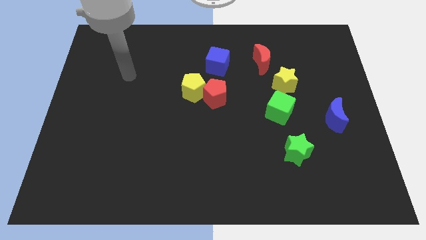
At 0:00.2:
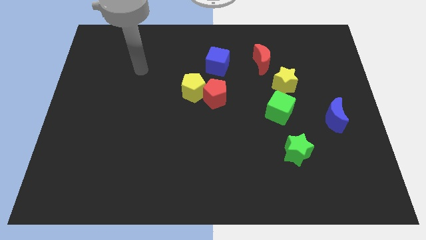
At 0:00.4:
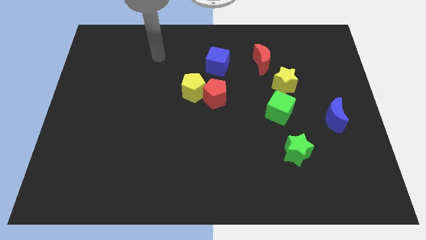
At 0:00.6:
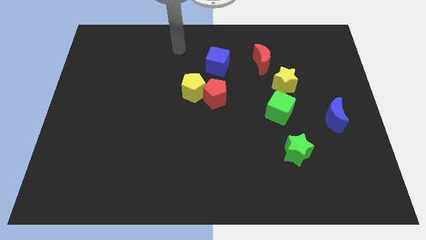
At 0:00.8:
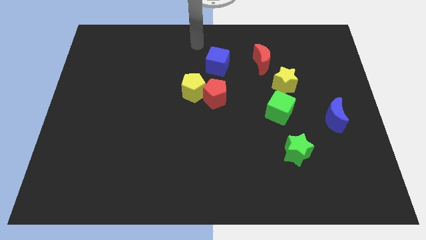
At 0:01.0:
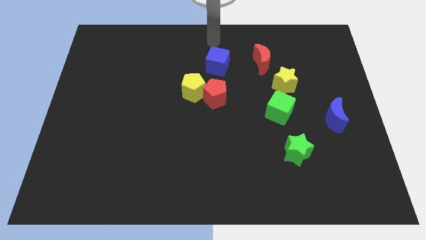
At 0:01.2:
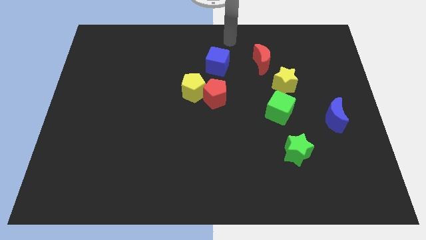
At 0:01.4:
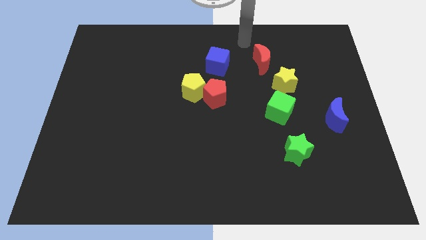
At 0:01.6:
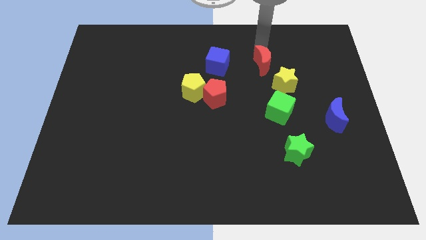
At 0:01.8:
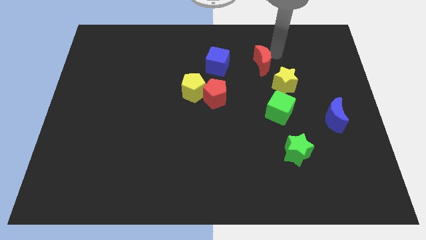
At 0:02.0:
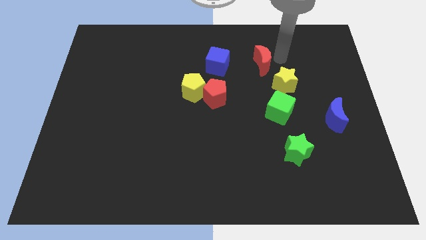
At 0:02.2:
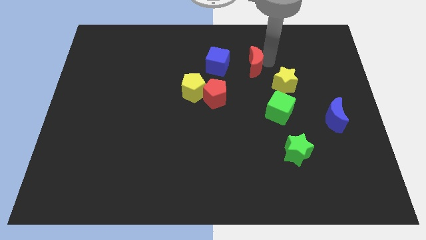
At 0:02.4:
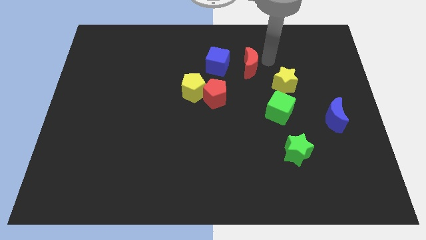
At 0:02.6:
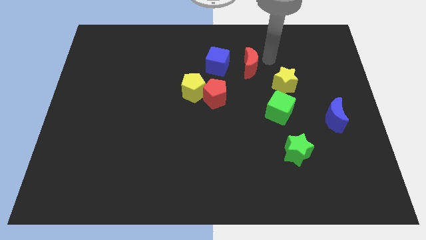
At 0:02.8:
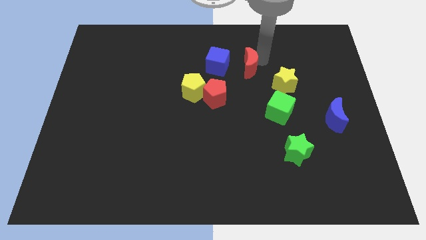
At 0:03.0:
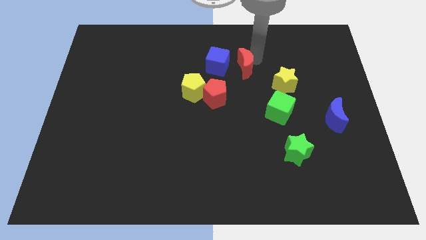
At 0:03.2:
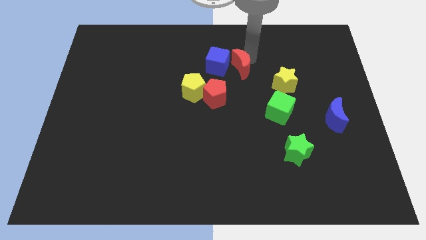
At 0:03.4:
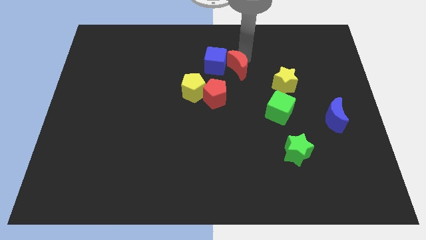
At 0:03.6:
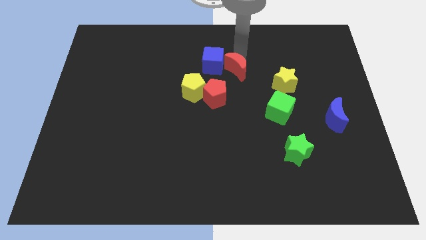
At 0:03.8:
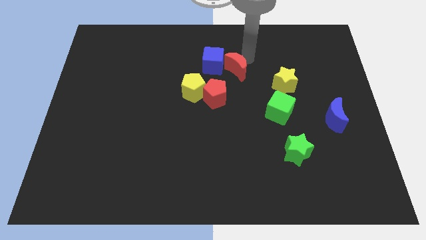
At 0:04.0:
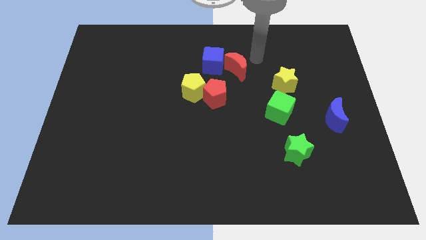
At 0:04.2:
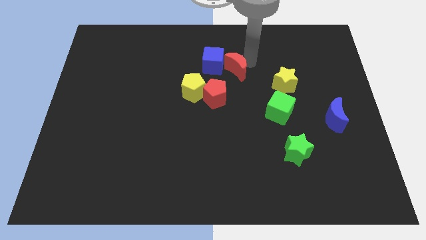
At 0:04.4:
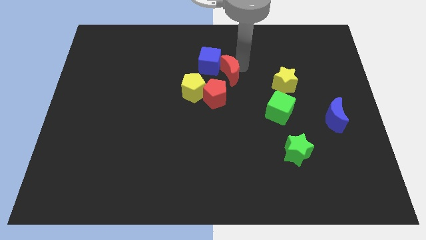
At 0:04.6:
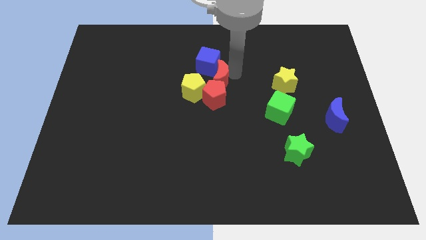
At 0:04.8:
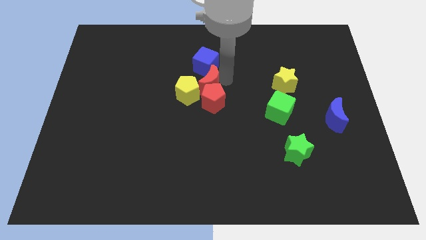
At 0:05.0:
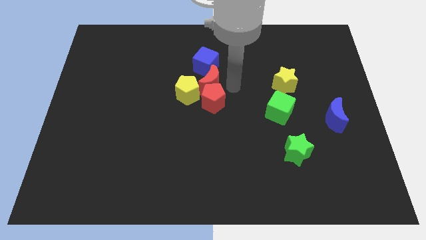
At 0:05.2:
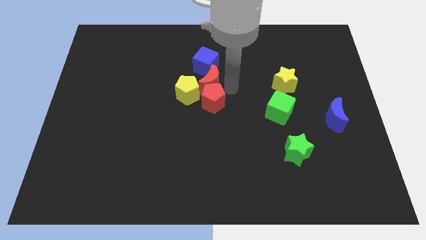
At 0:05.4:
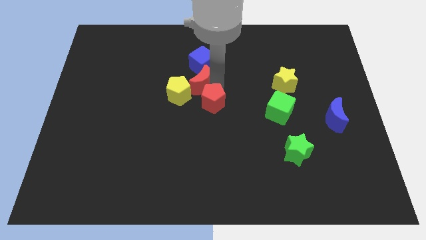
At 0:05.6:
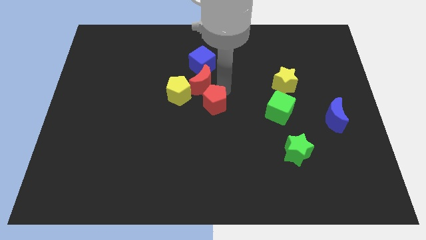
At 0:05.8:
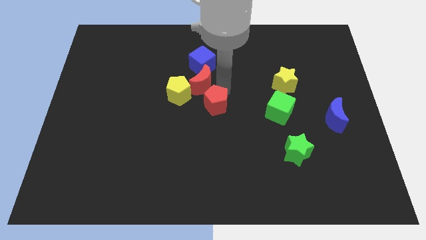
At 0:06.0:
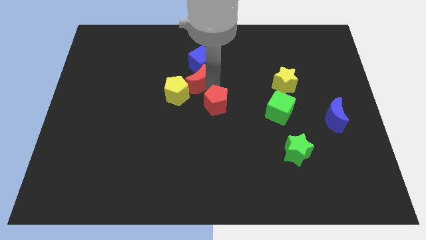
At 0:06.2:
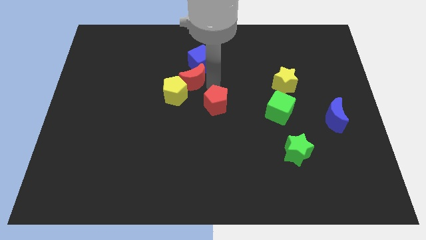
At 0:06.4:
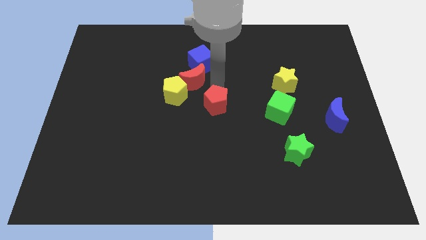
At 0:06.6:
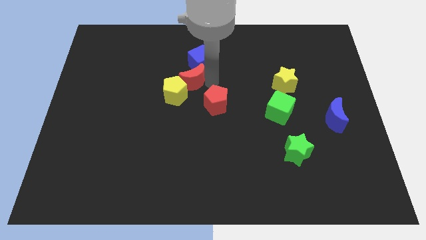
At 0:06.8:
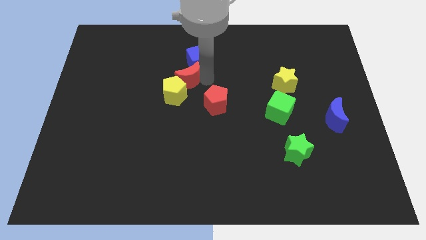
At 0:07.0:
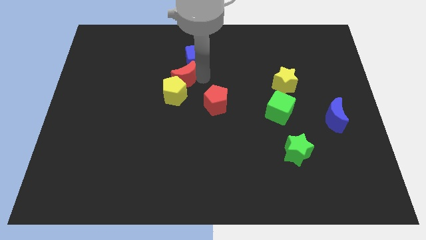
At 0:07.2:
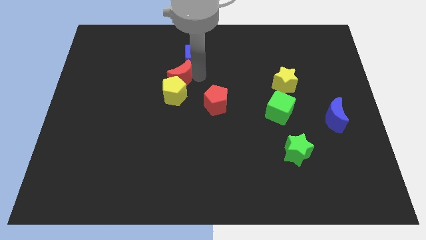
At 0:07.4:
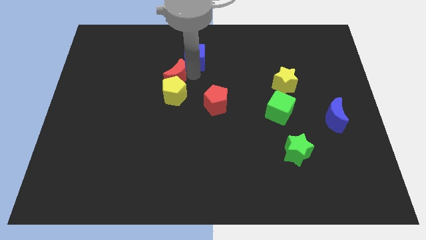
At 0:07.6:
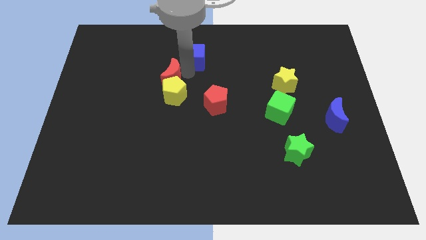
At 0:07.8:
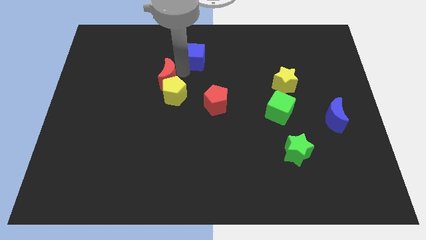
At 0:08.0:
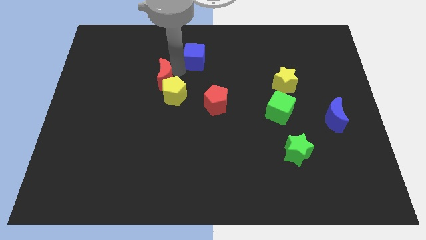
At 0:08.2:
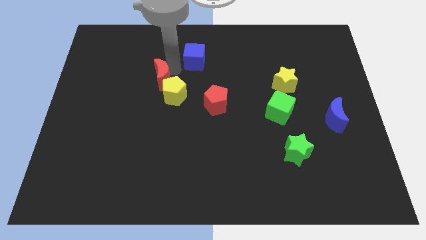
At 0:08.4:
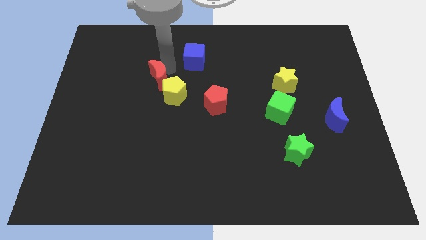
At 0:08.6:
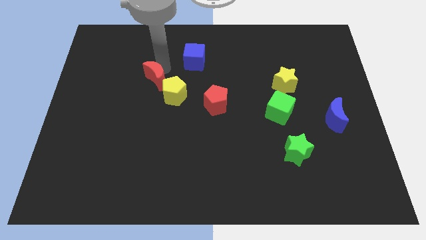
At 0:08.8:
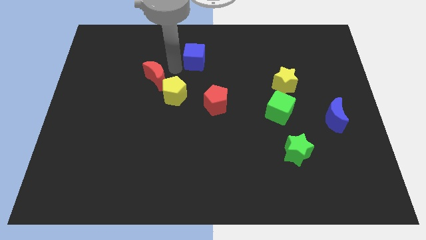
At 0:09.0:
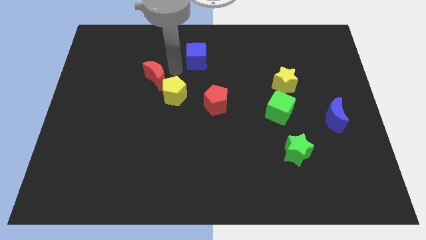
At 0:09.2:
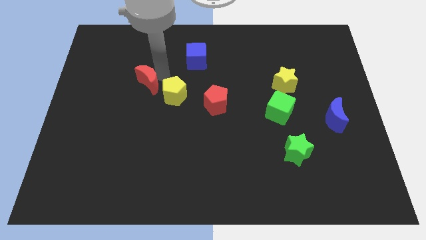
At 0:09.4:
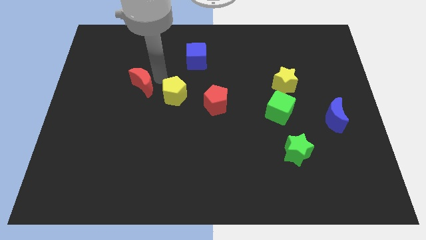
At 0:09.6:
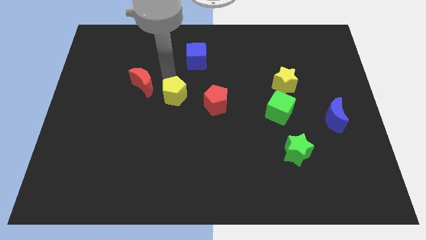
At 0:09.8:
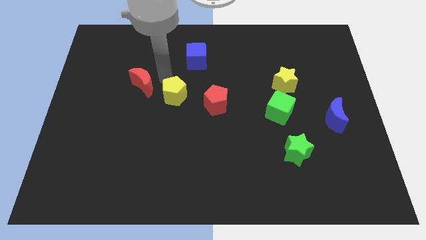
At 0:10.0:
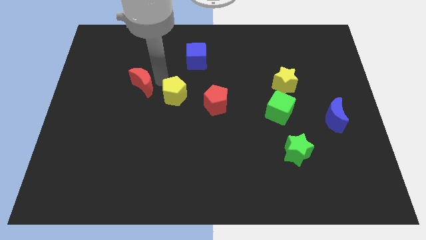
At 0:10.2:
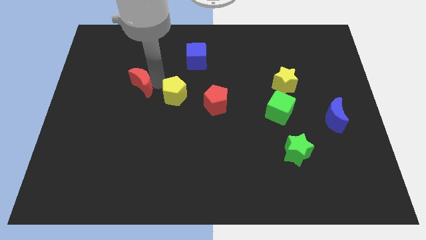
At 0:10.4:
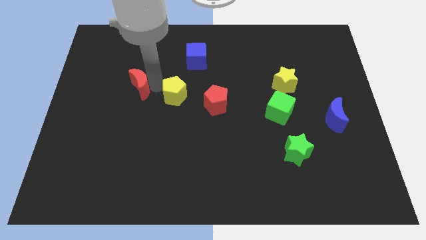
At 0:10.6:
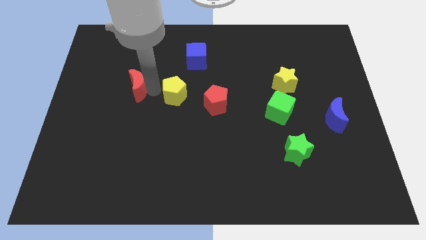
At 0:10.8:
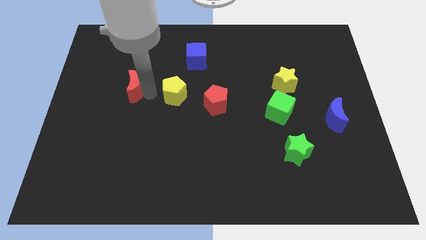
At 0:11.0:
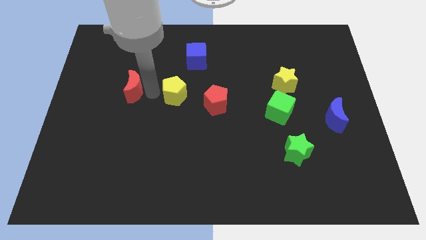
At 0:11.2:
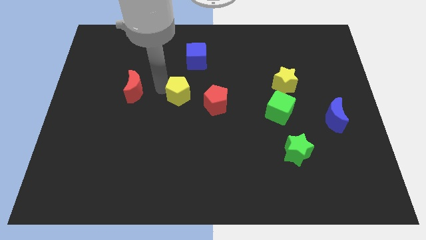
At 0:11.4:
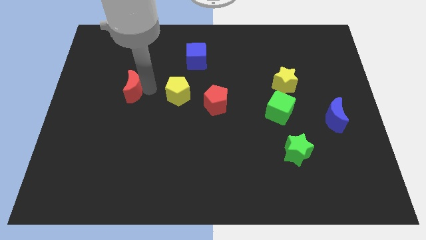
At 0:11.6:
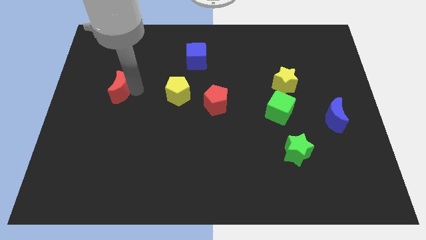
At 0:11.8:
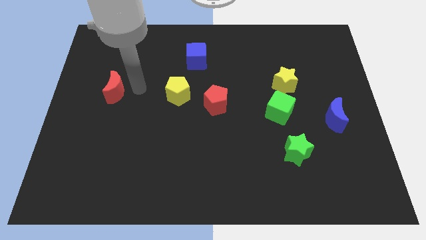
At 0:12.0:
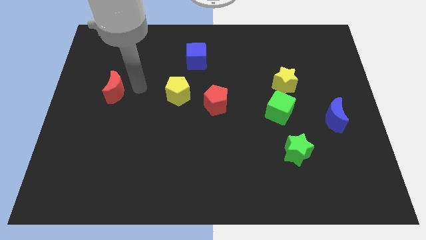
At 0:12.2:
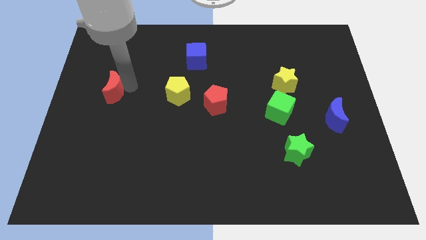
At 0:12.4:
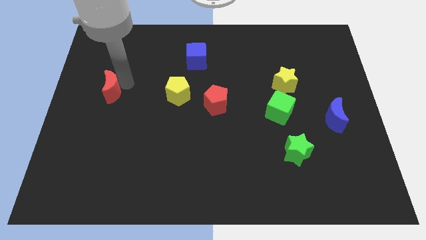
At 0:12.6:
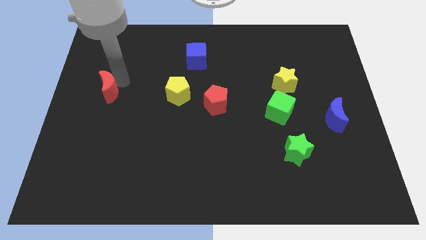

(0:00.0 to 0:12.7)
move the red moon to the left side of the board
